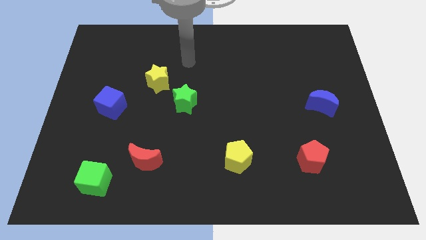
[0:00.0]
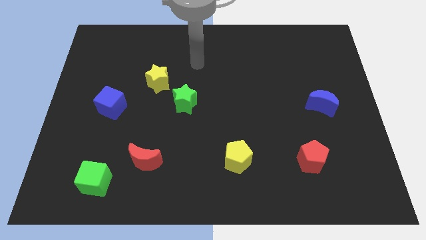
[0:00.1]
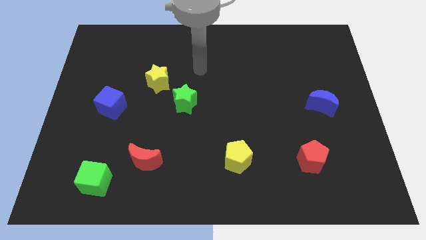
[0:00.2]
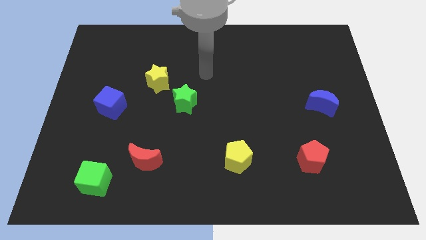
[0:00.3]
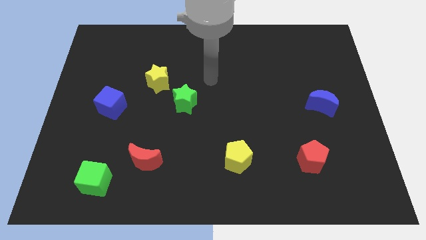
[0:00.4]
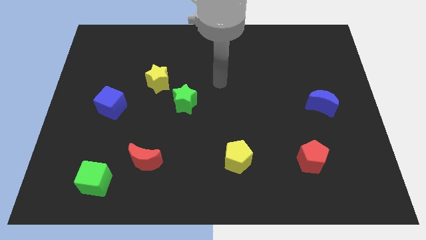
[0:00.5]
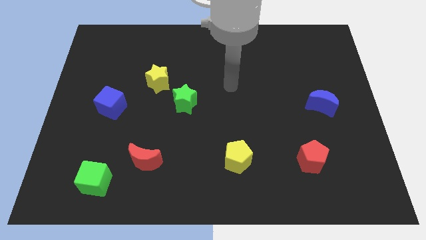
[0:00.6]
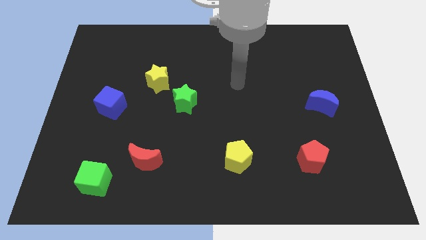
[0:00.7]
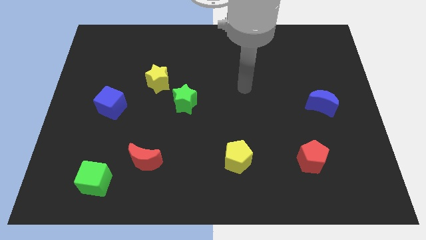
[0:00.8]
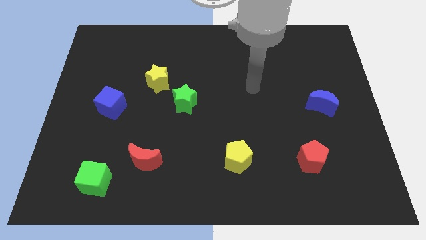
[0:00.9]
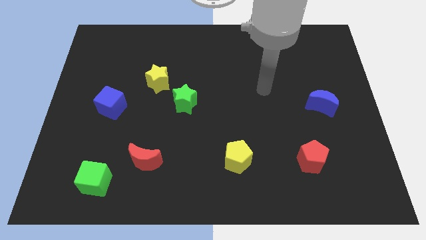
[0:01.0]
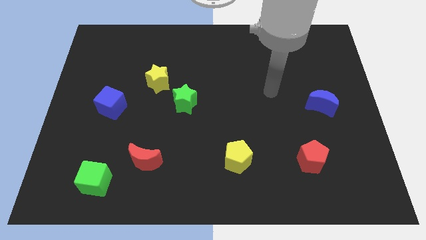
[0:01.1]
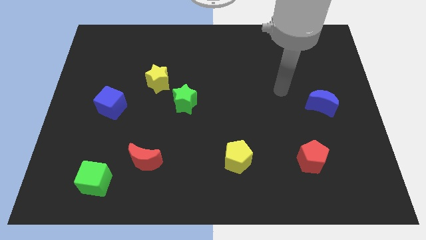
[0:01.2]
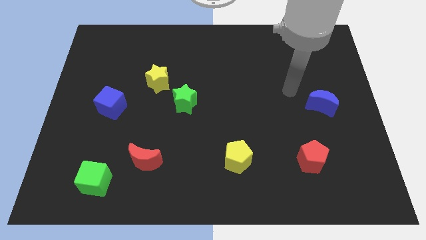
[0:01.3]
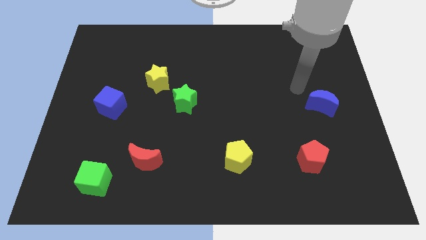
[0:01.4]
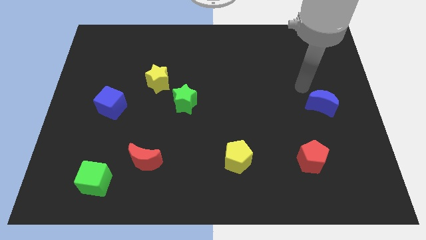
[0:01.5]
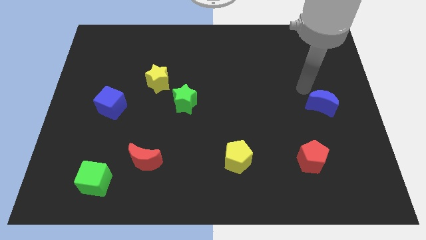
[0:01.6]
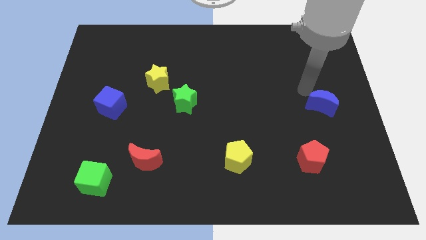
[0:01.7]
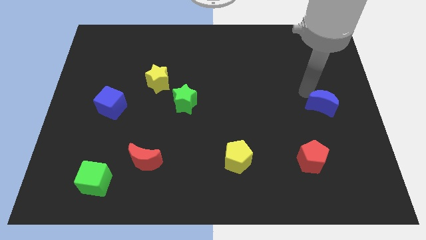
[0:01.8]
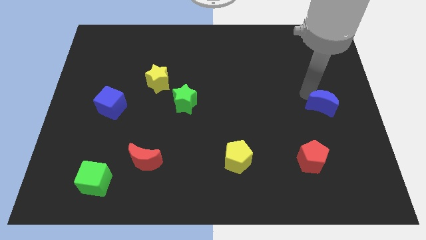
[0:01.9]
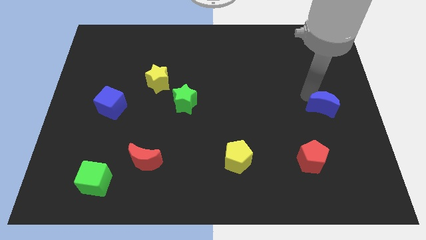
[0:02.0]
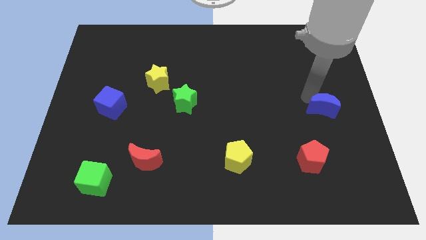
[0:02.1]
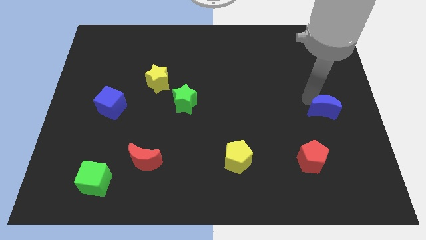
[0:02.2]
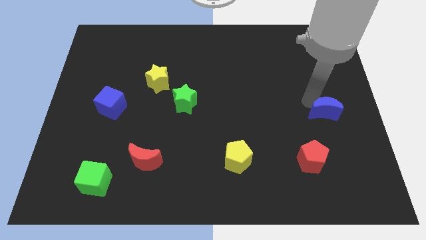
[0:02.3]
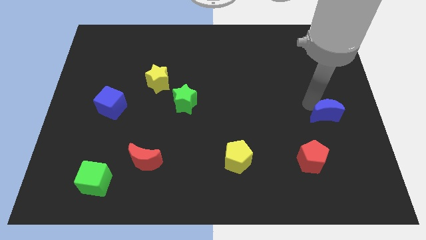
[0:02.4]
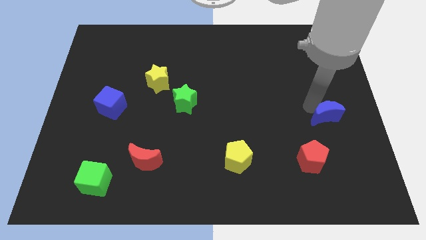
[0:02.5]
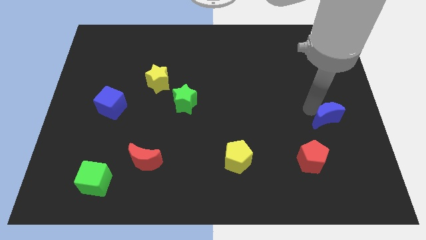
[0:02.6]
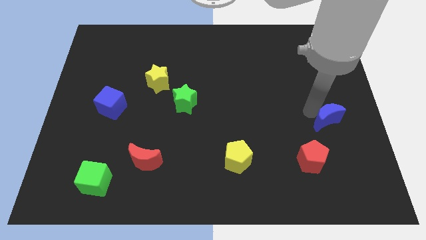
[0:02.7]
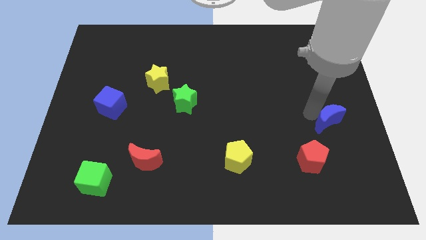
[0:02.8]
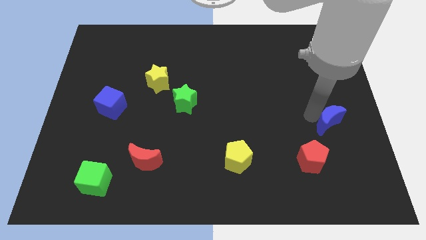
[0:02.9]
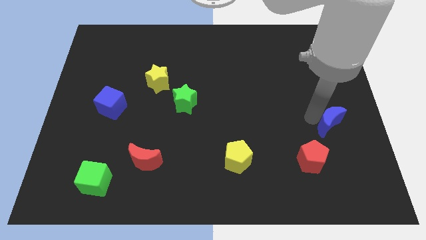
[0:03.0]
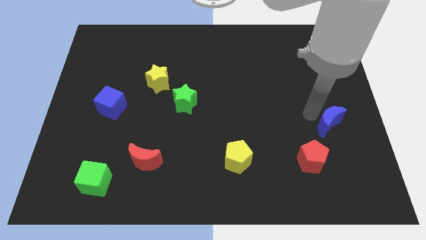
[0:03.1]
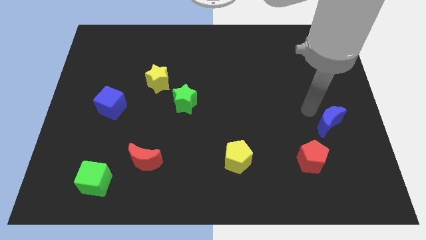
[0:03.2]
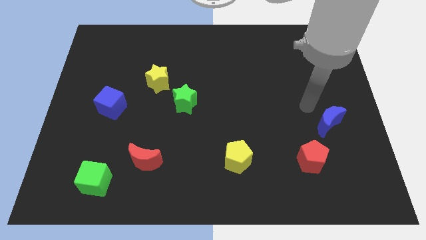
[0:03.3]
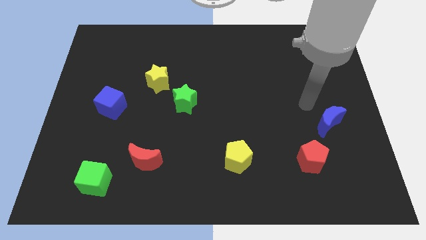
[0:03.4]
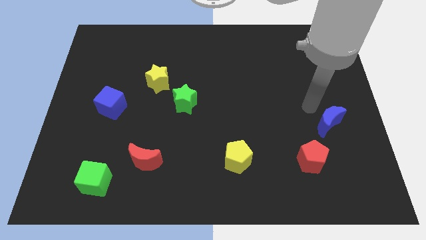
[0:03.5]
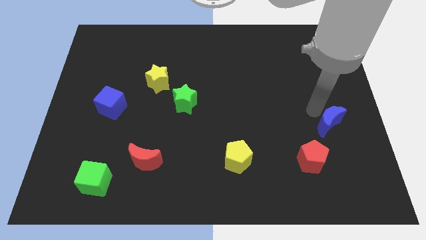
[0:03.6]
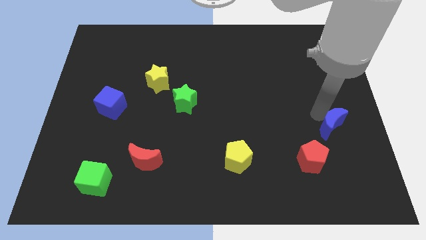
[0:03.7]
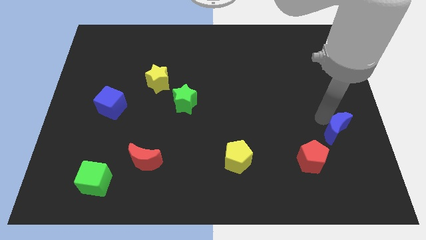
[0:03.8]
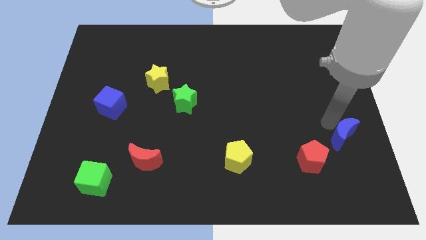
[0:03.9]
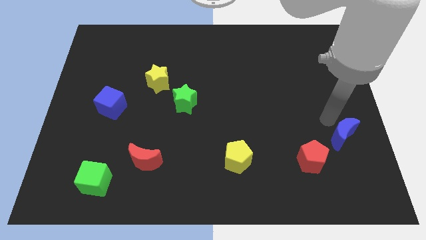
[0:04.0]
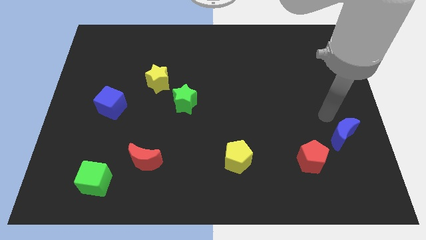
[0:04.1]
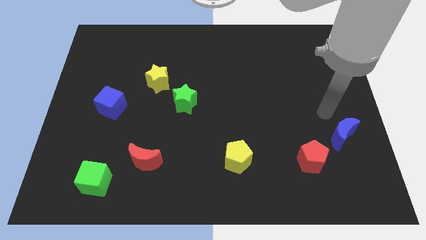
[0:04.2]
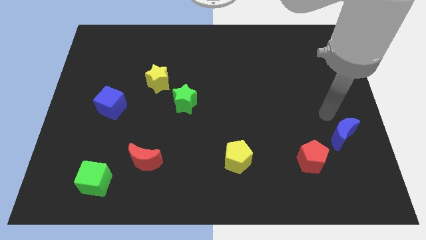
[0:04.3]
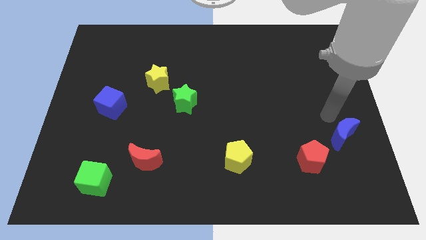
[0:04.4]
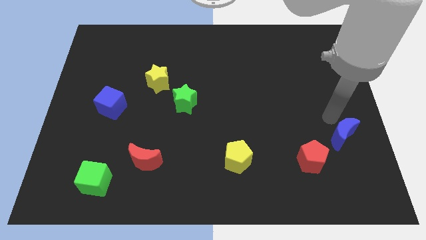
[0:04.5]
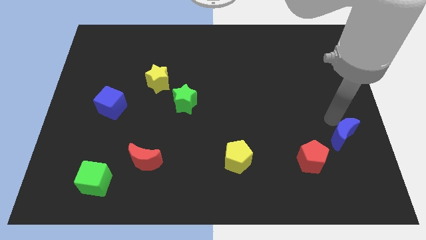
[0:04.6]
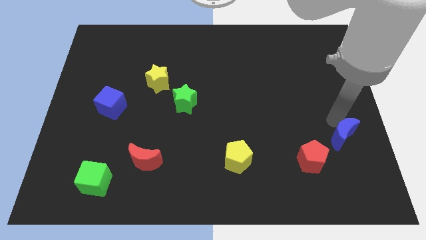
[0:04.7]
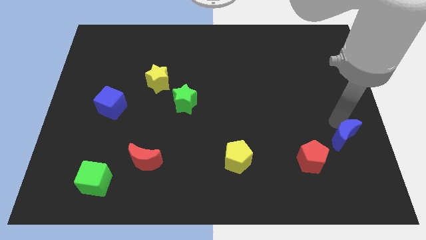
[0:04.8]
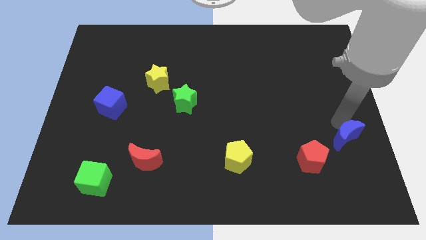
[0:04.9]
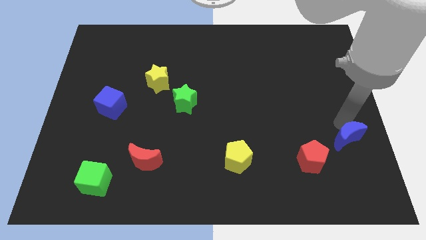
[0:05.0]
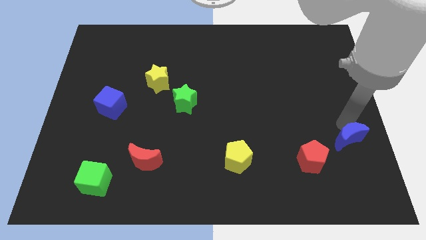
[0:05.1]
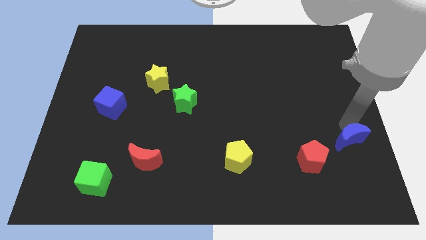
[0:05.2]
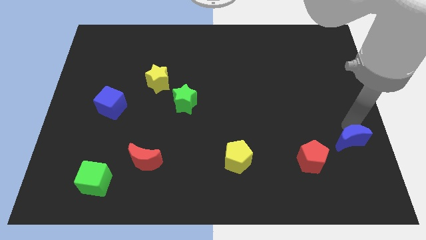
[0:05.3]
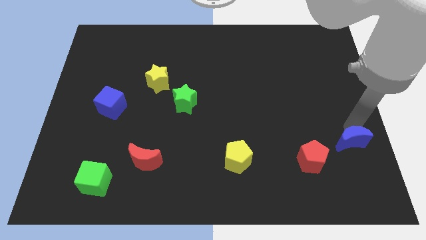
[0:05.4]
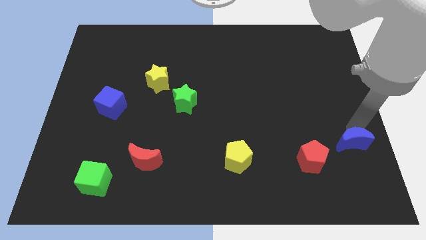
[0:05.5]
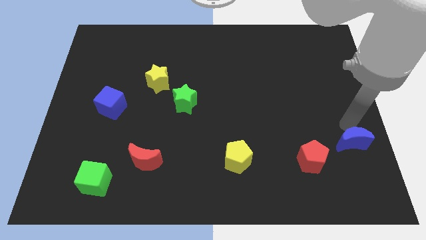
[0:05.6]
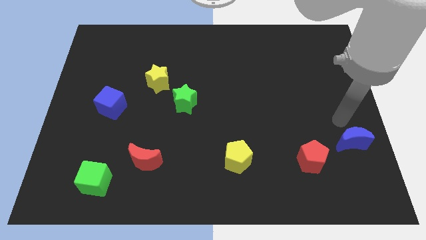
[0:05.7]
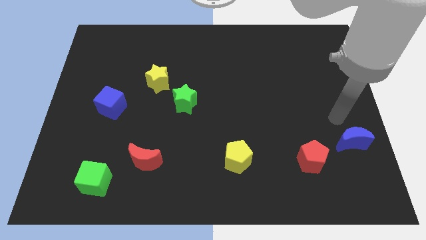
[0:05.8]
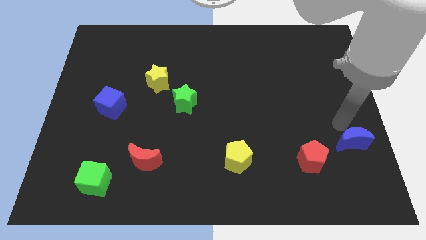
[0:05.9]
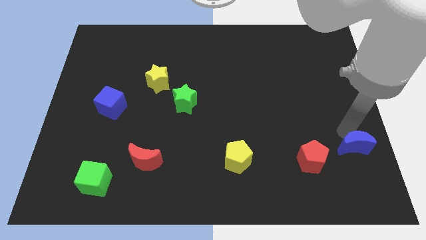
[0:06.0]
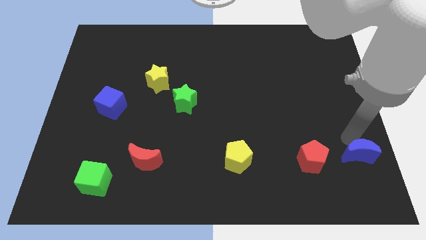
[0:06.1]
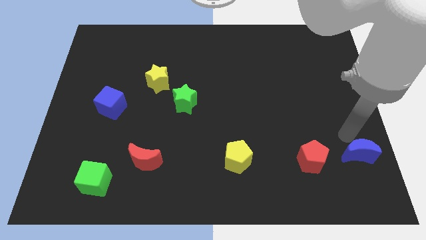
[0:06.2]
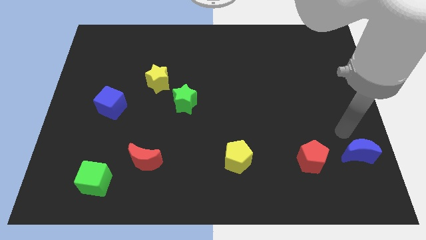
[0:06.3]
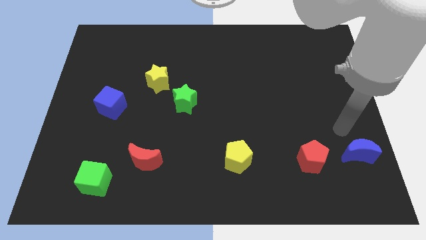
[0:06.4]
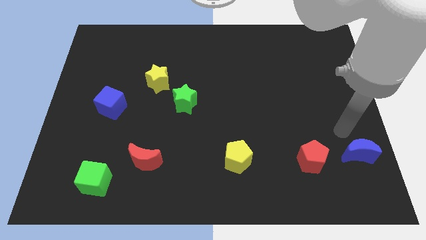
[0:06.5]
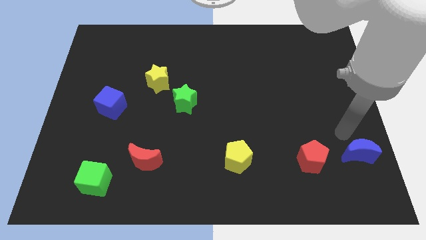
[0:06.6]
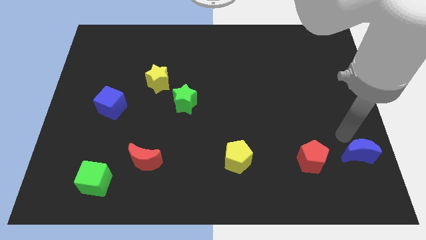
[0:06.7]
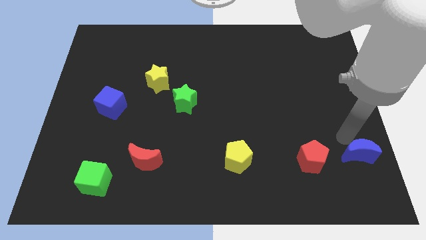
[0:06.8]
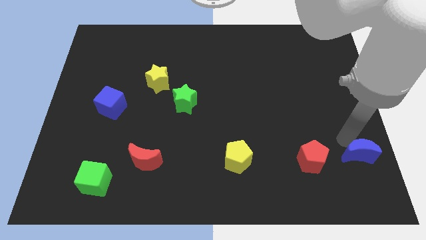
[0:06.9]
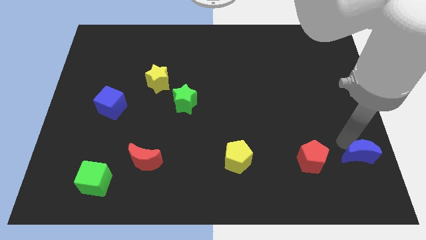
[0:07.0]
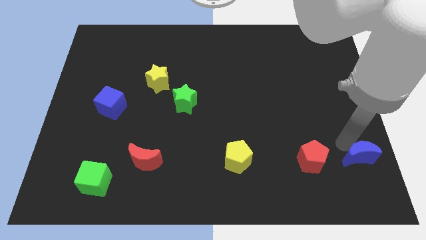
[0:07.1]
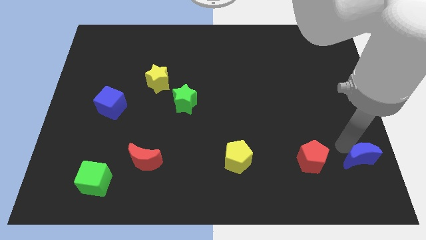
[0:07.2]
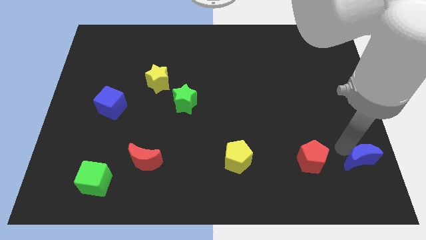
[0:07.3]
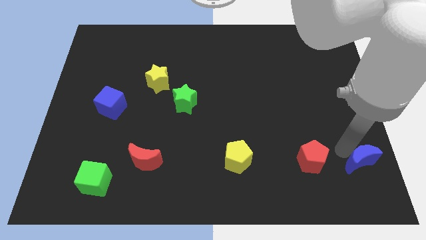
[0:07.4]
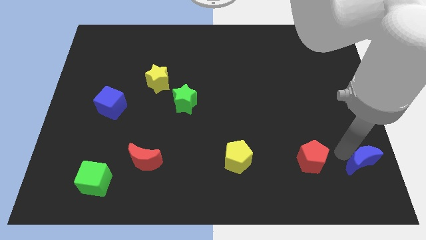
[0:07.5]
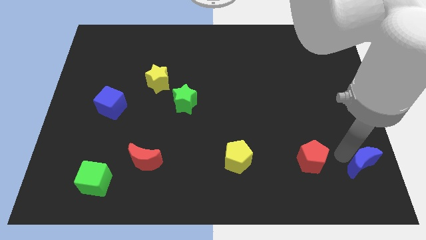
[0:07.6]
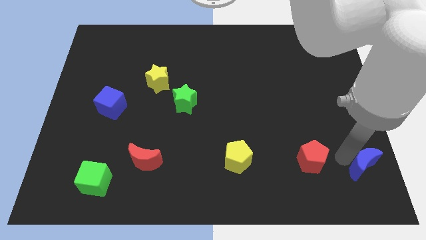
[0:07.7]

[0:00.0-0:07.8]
move the blue moon to the bottom right corner

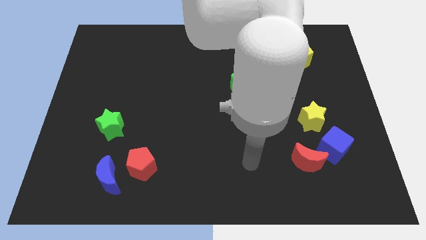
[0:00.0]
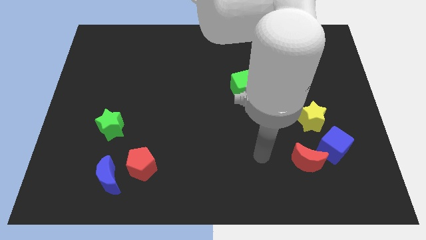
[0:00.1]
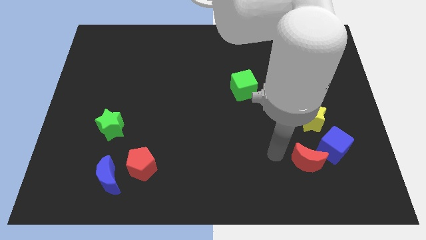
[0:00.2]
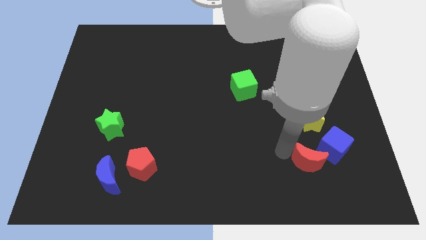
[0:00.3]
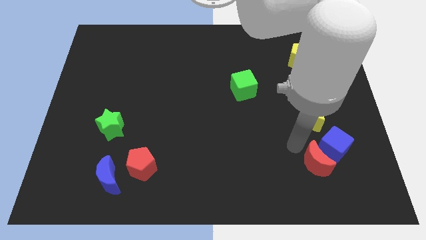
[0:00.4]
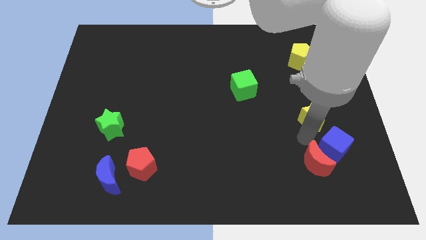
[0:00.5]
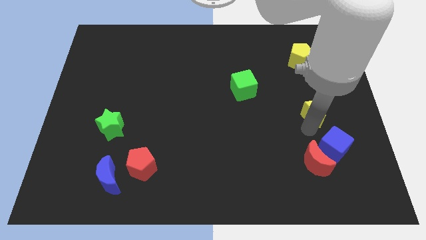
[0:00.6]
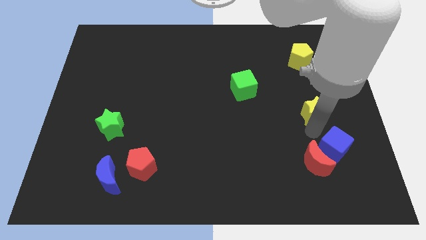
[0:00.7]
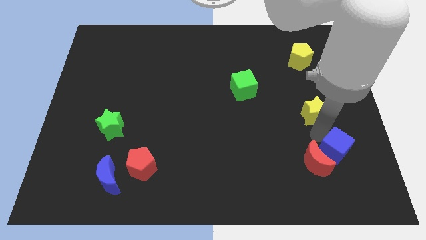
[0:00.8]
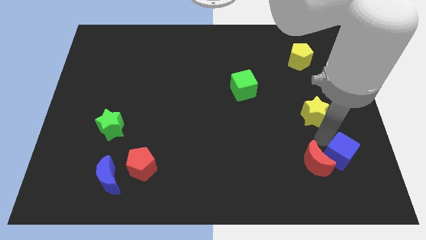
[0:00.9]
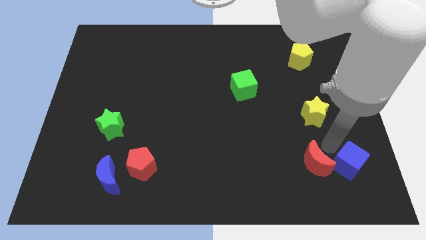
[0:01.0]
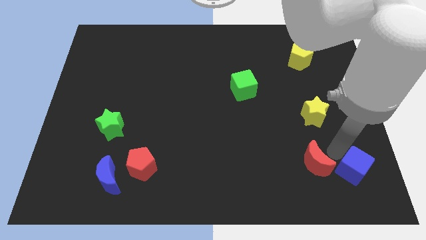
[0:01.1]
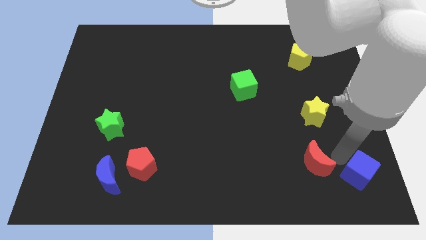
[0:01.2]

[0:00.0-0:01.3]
push the blue cube to the bottom right
